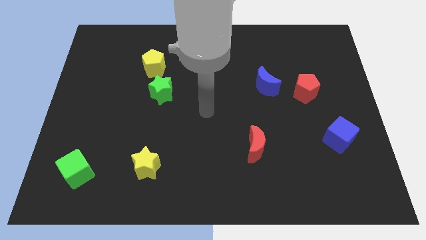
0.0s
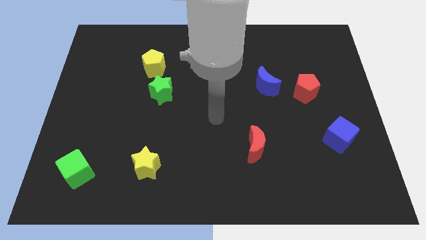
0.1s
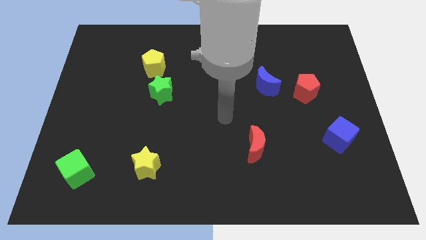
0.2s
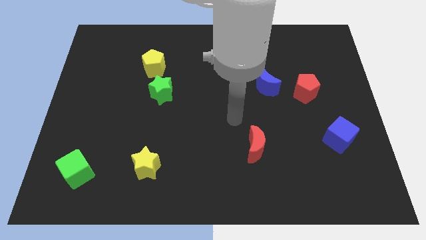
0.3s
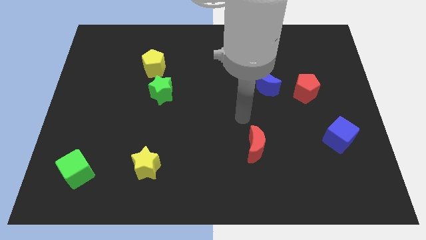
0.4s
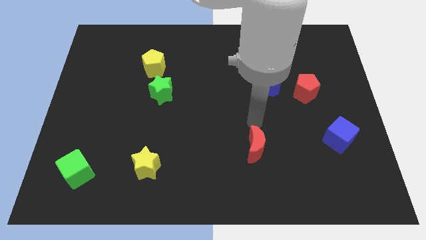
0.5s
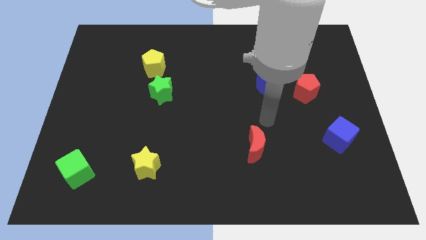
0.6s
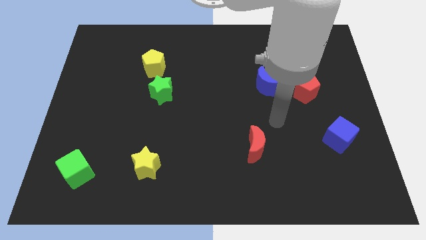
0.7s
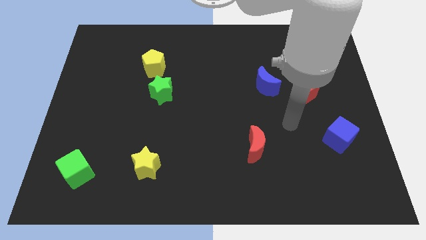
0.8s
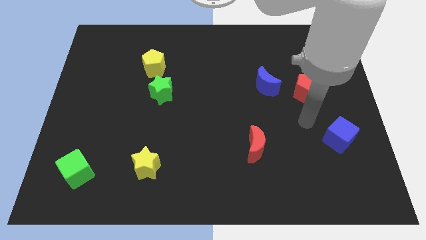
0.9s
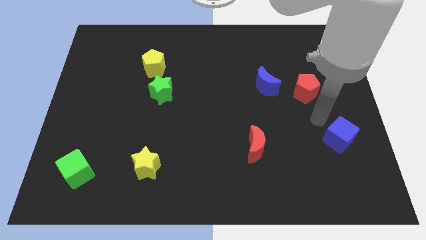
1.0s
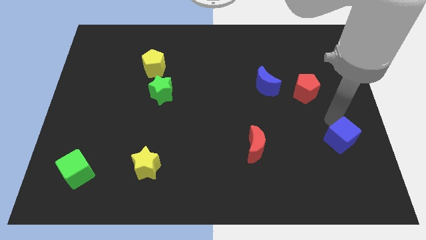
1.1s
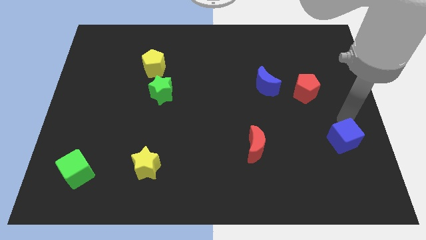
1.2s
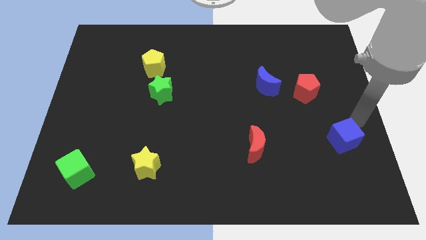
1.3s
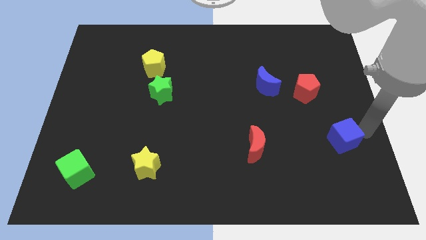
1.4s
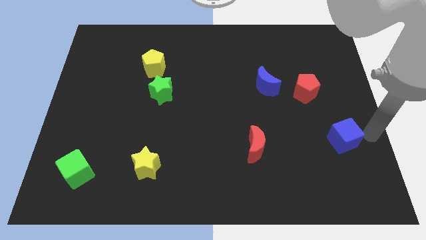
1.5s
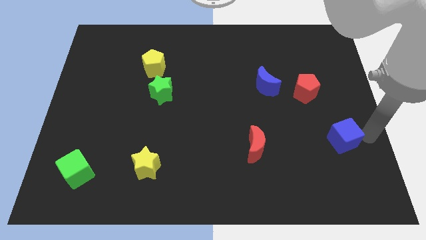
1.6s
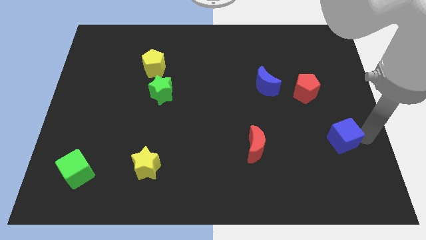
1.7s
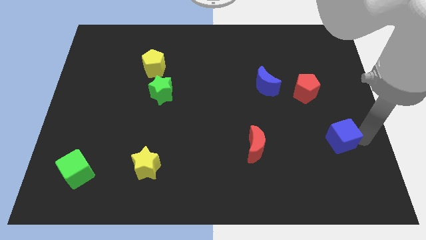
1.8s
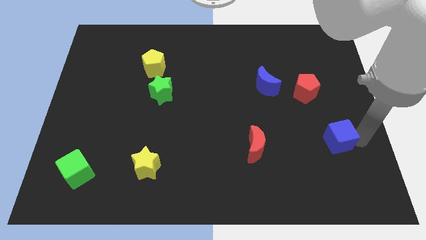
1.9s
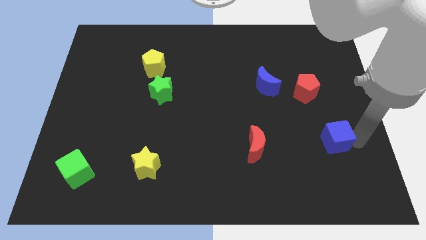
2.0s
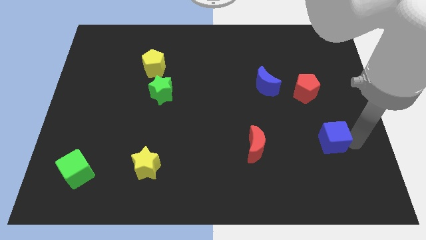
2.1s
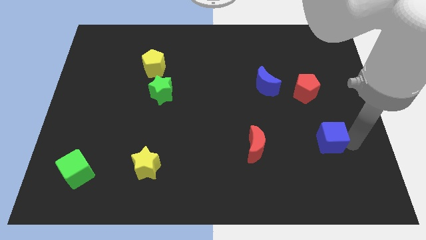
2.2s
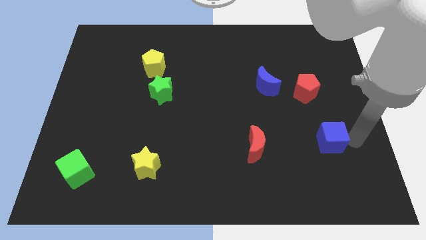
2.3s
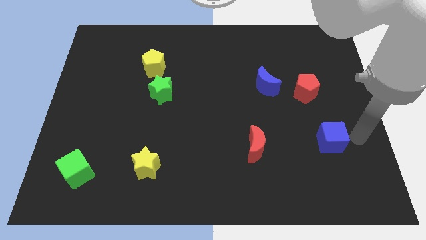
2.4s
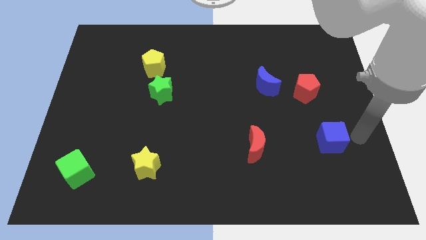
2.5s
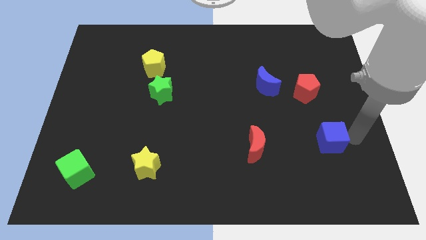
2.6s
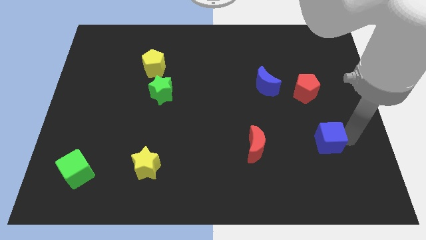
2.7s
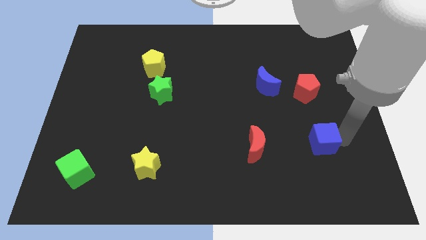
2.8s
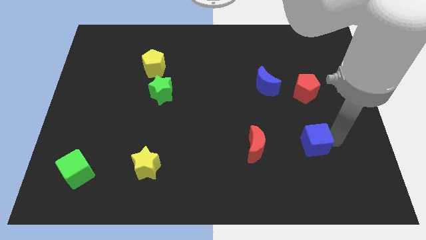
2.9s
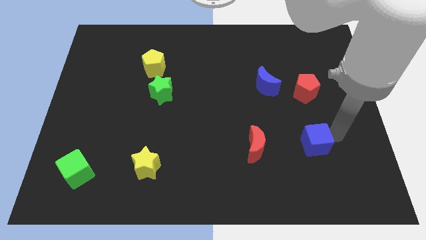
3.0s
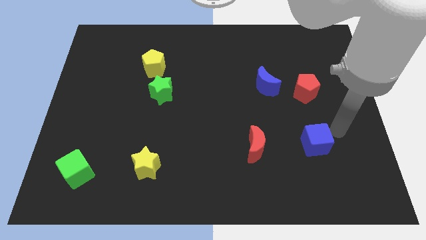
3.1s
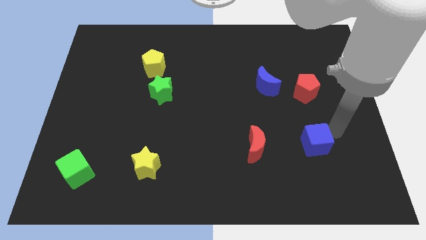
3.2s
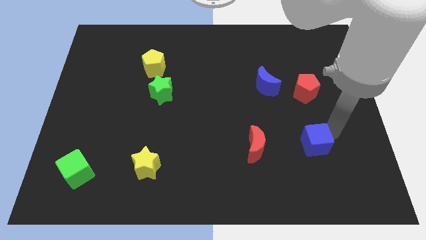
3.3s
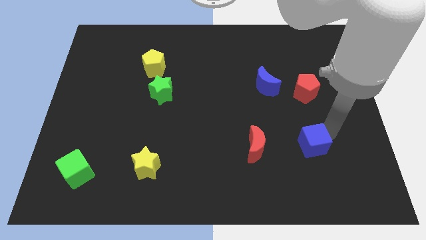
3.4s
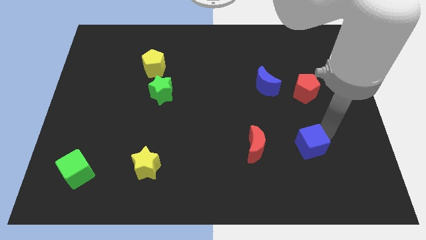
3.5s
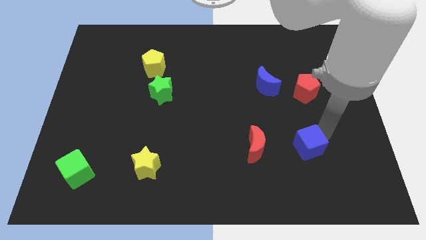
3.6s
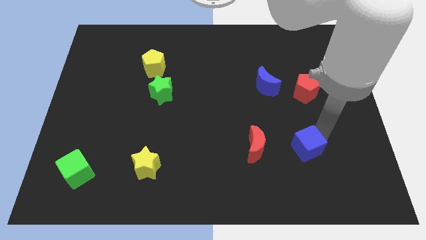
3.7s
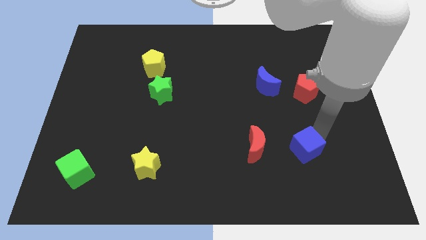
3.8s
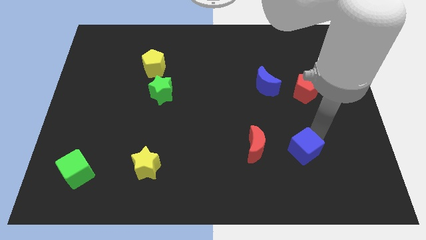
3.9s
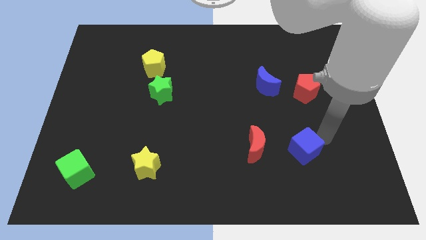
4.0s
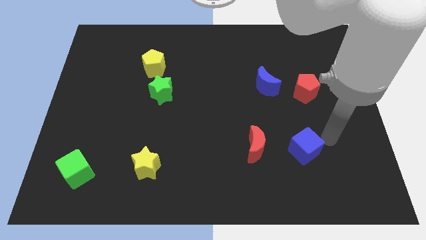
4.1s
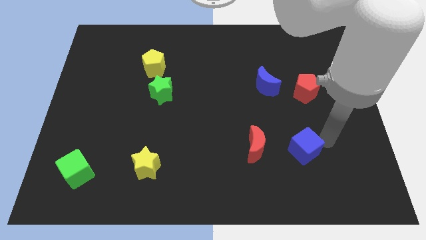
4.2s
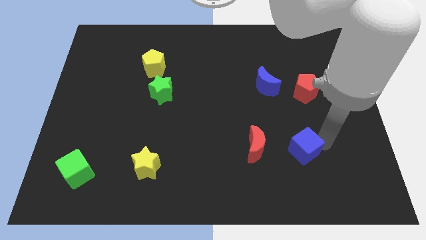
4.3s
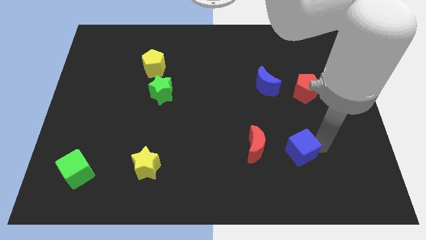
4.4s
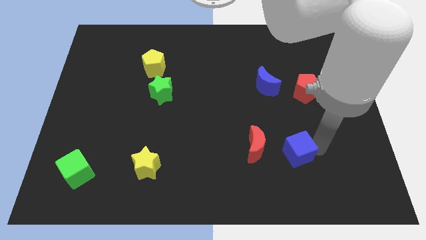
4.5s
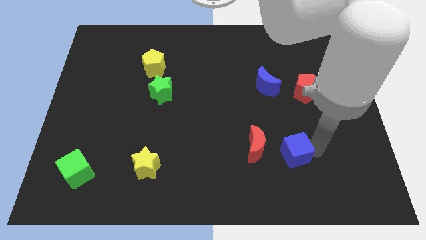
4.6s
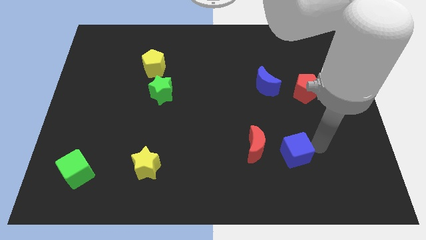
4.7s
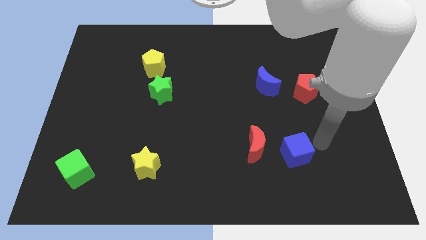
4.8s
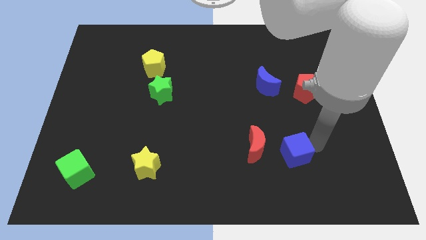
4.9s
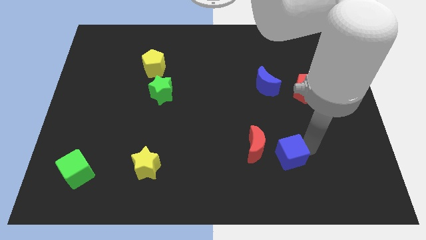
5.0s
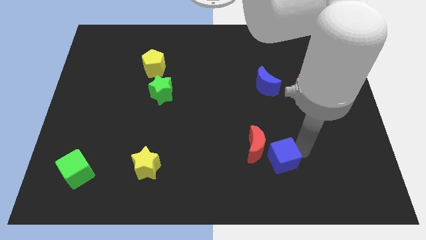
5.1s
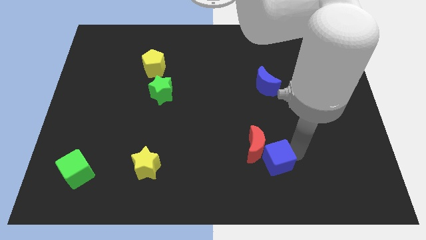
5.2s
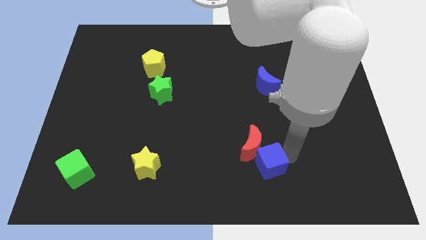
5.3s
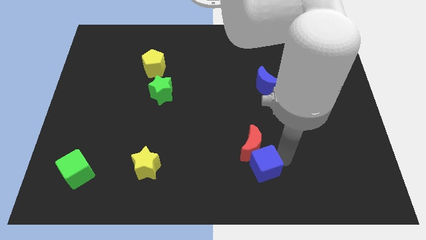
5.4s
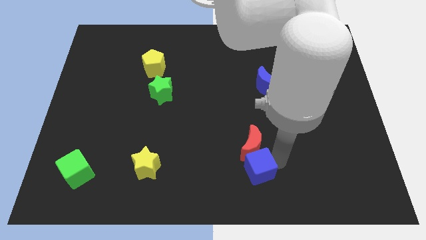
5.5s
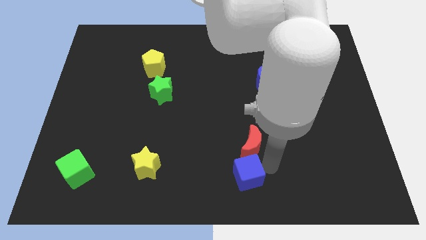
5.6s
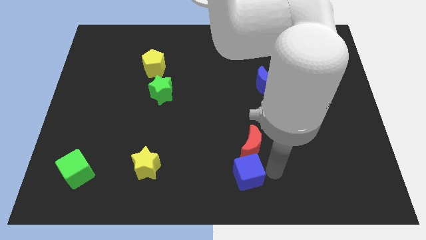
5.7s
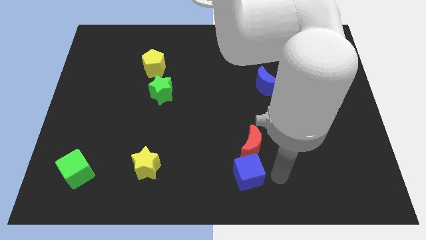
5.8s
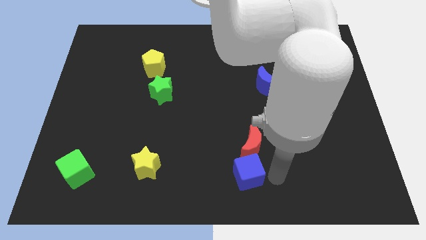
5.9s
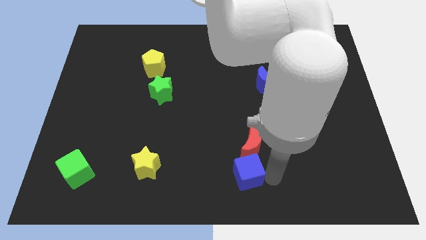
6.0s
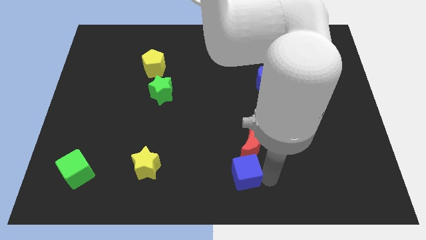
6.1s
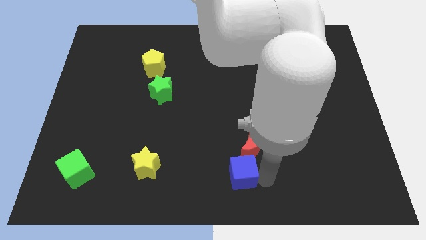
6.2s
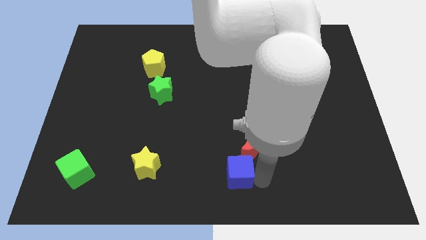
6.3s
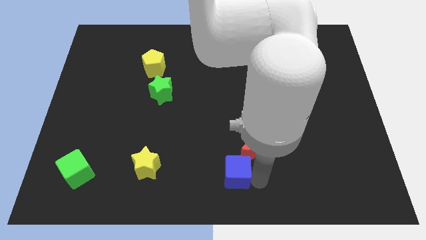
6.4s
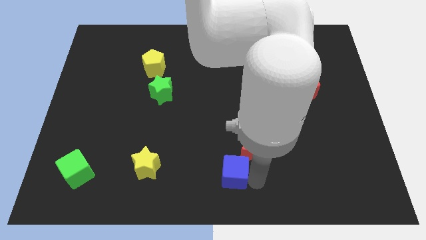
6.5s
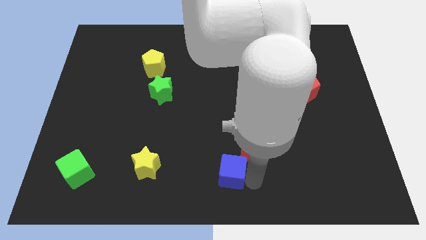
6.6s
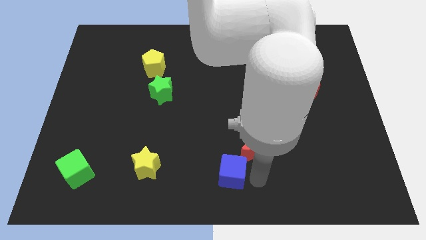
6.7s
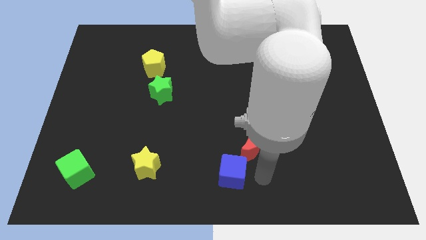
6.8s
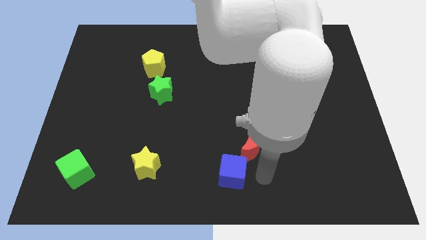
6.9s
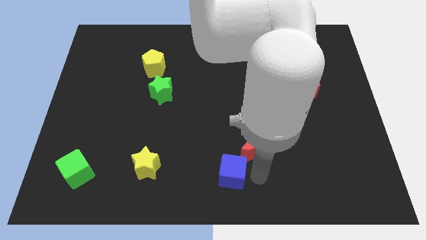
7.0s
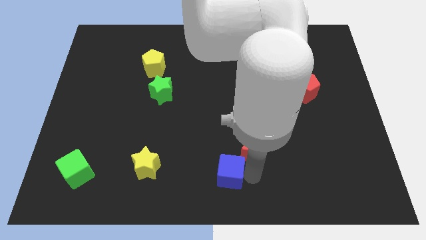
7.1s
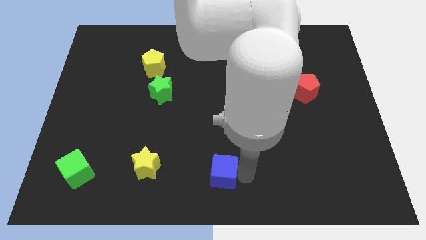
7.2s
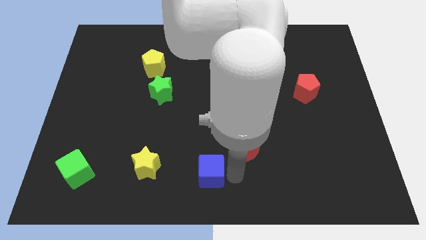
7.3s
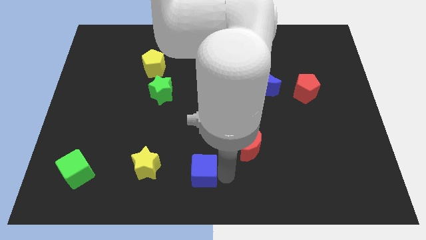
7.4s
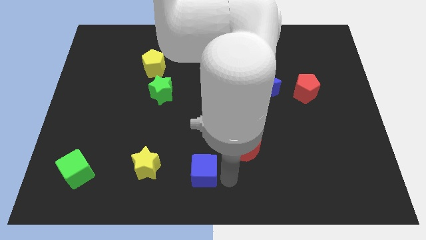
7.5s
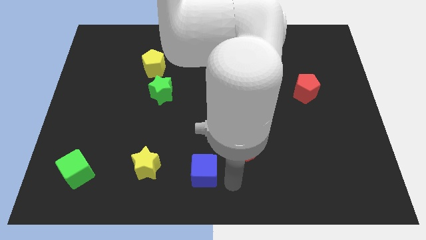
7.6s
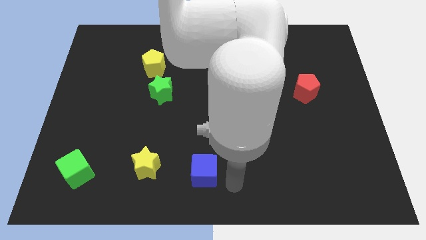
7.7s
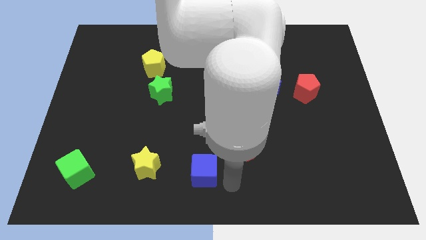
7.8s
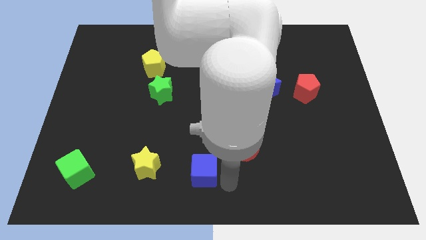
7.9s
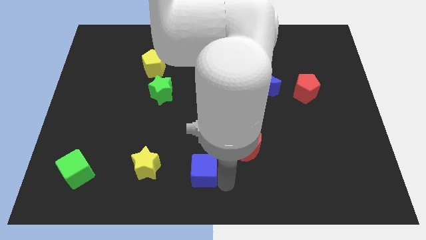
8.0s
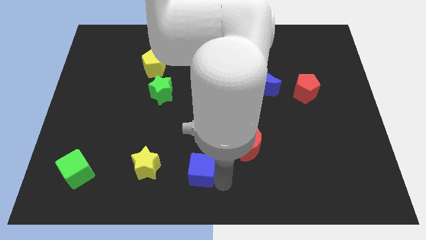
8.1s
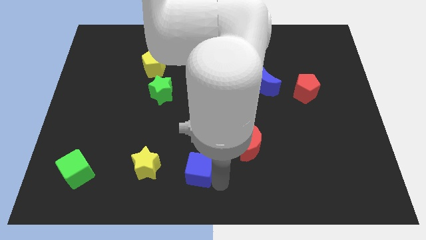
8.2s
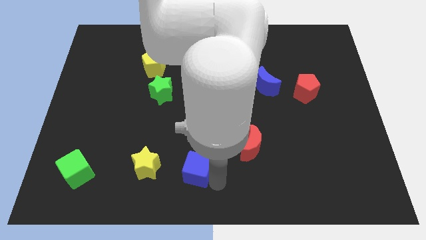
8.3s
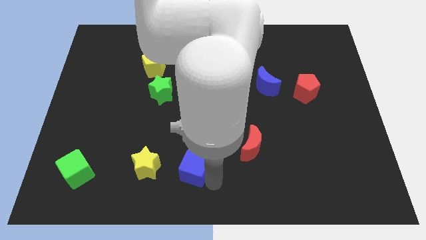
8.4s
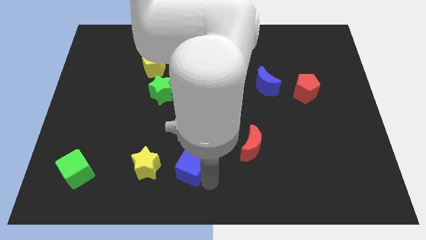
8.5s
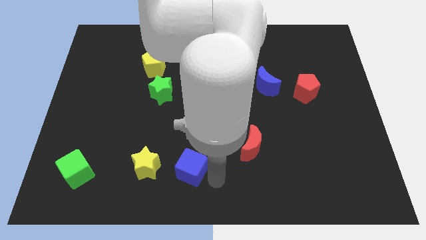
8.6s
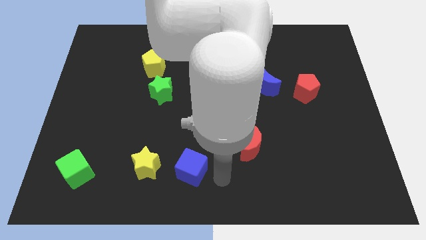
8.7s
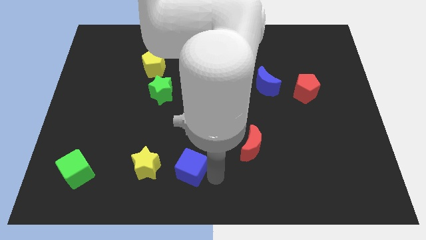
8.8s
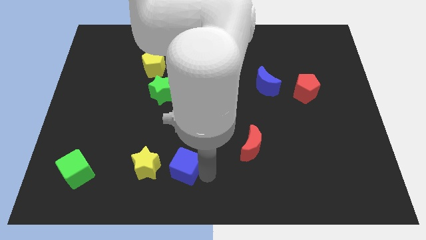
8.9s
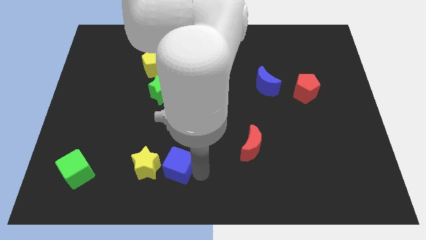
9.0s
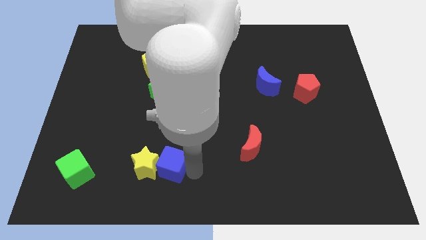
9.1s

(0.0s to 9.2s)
push the blue cube to the yellow star
